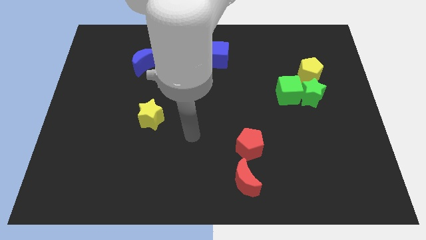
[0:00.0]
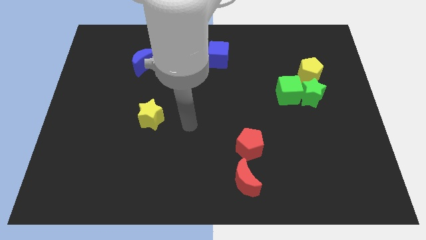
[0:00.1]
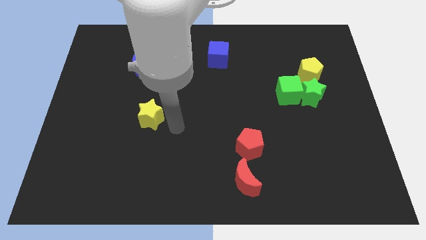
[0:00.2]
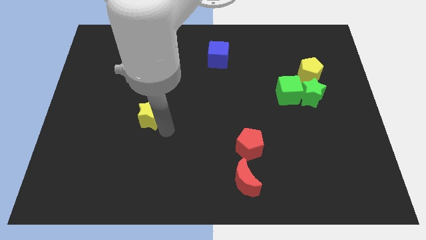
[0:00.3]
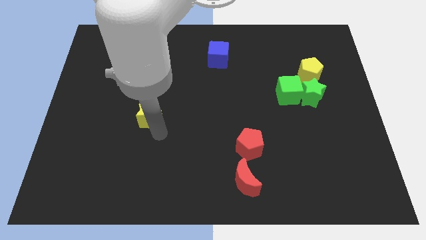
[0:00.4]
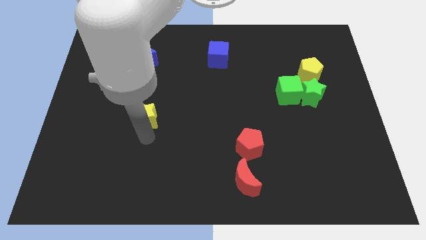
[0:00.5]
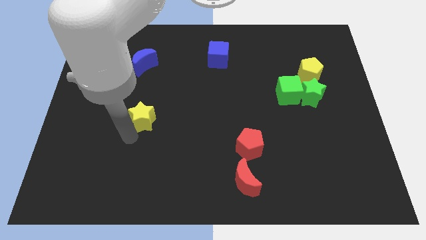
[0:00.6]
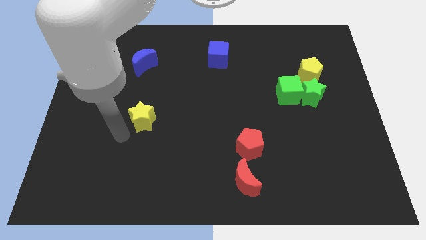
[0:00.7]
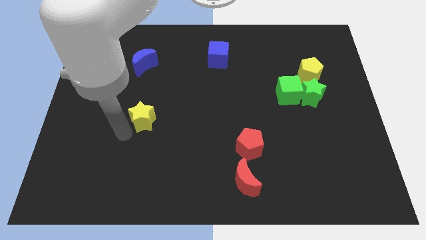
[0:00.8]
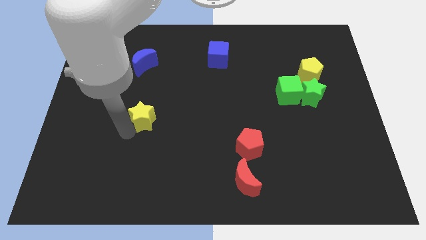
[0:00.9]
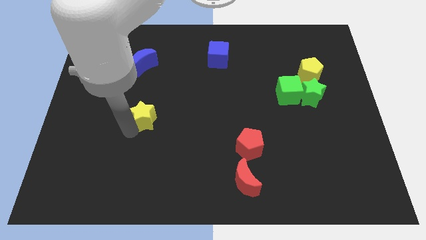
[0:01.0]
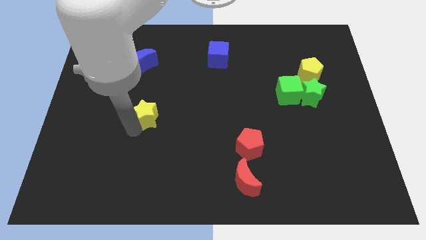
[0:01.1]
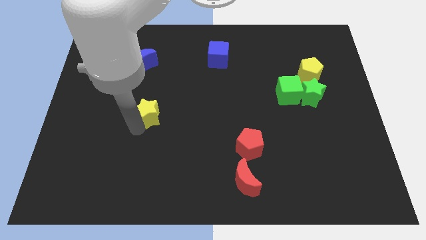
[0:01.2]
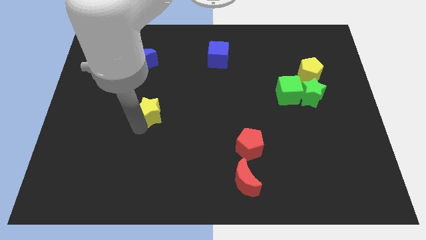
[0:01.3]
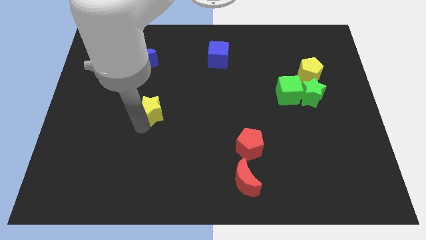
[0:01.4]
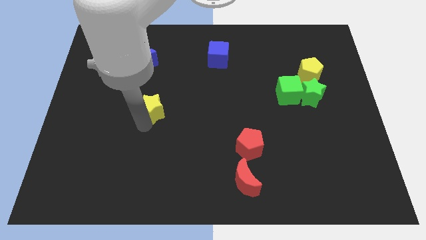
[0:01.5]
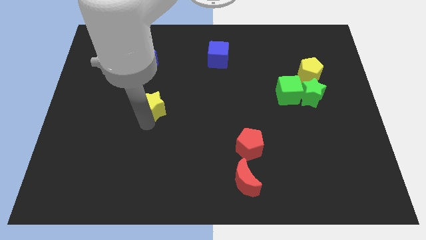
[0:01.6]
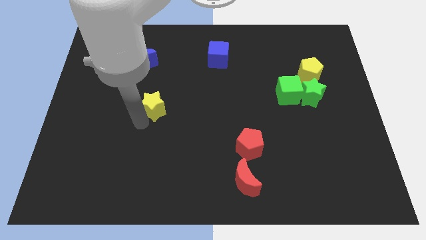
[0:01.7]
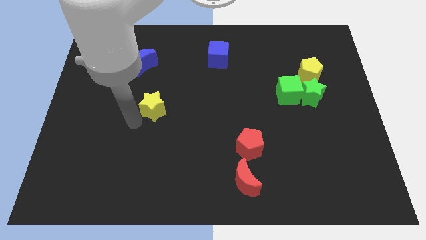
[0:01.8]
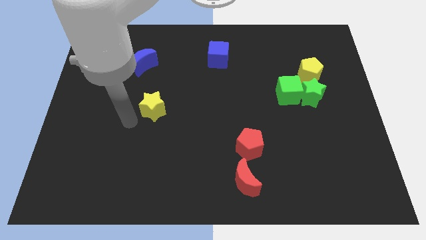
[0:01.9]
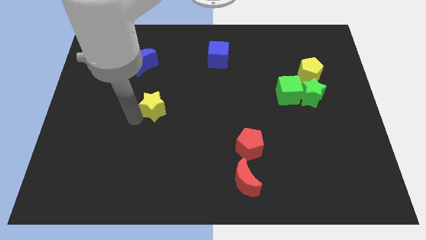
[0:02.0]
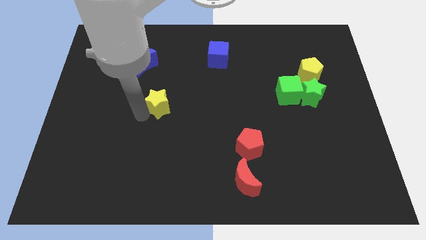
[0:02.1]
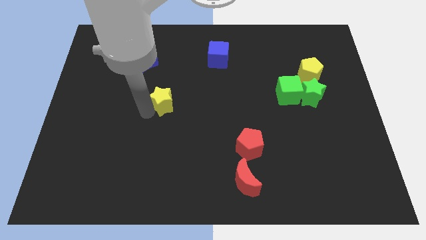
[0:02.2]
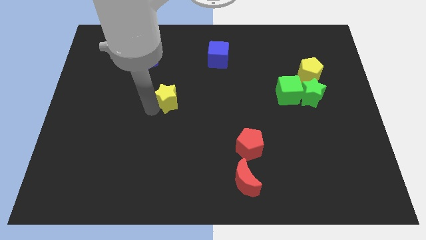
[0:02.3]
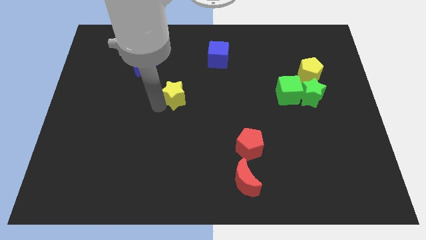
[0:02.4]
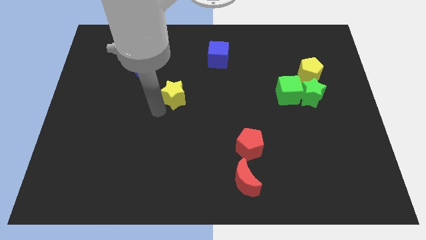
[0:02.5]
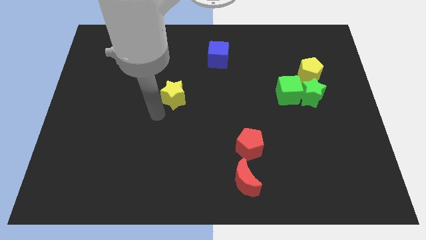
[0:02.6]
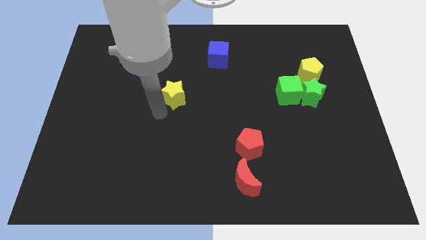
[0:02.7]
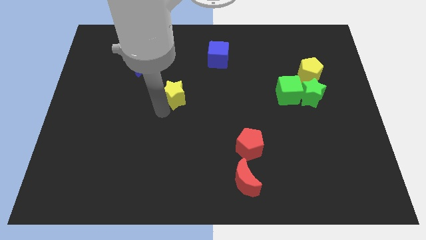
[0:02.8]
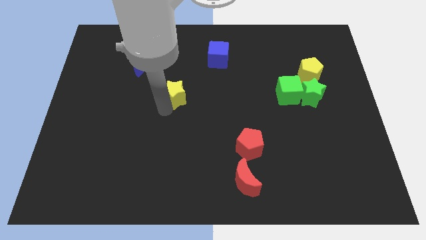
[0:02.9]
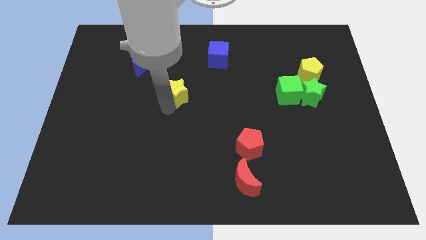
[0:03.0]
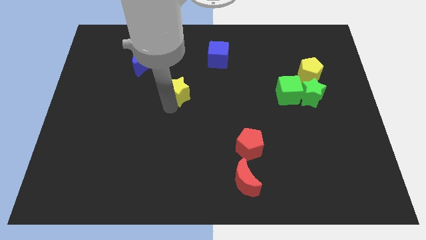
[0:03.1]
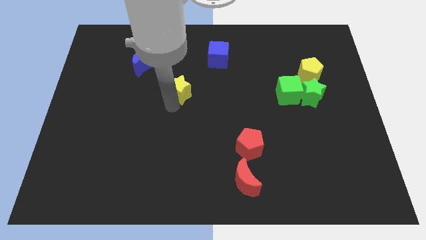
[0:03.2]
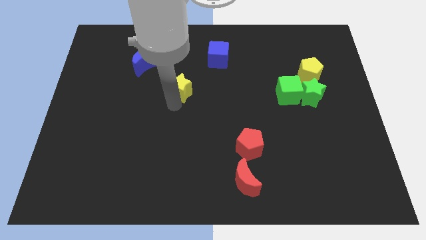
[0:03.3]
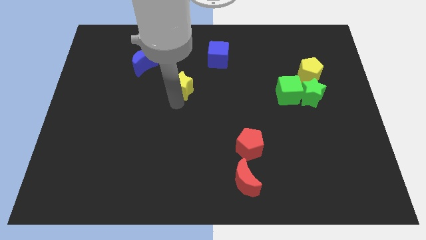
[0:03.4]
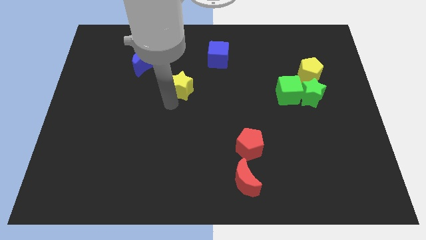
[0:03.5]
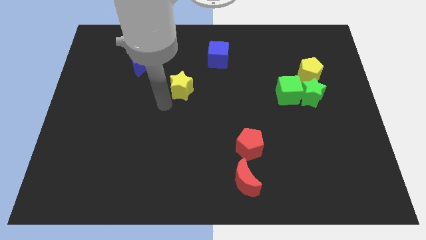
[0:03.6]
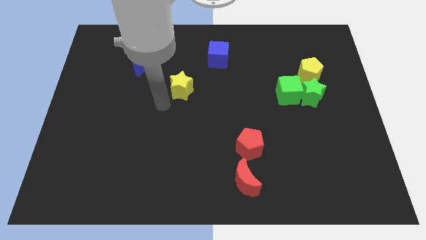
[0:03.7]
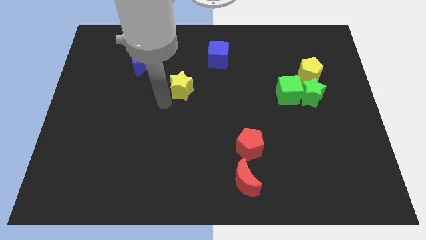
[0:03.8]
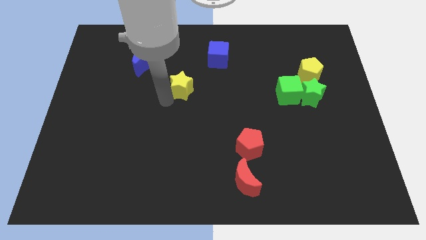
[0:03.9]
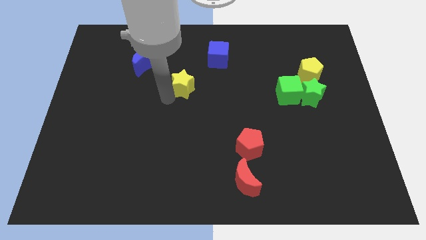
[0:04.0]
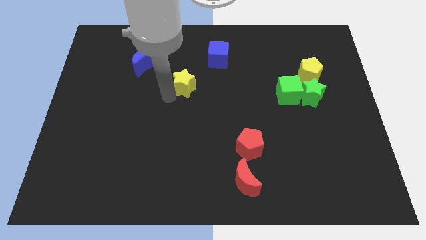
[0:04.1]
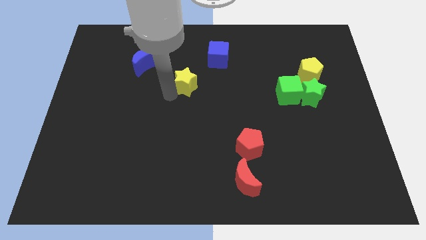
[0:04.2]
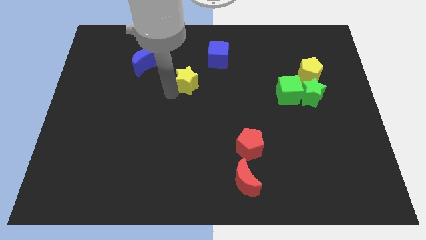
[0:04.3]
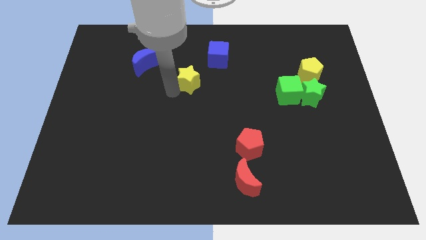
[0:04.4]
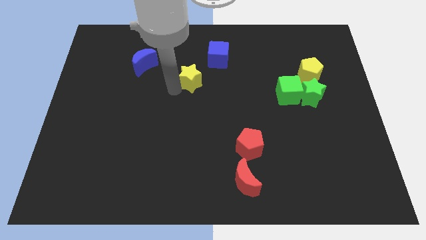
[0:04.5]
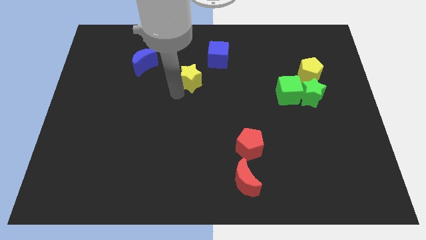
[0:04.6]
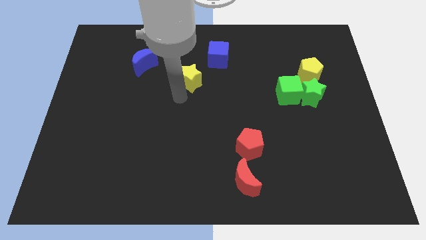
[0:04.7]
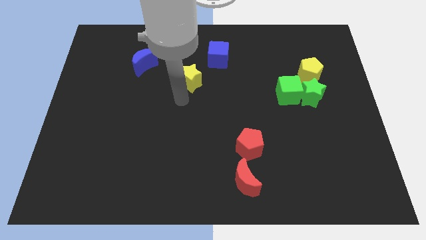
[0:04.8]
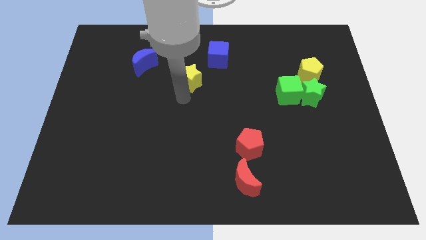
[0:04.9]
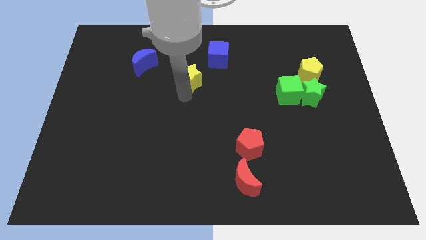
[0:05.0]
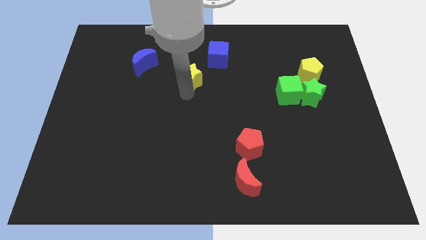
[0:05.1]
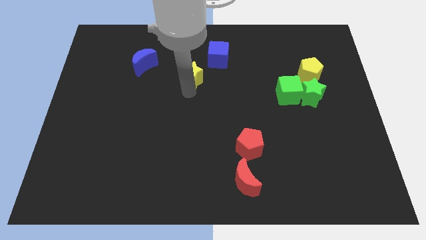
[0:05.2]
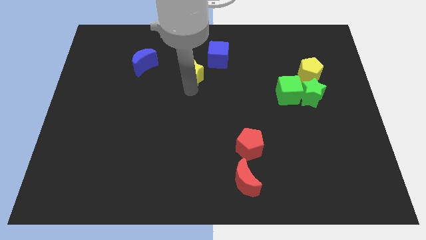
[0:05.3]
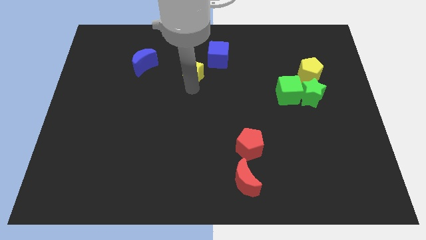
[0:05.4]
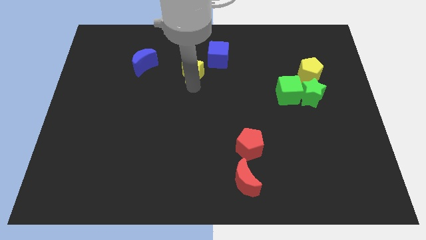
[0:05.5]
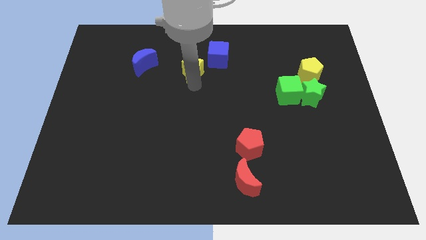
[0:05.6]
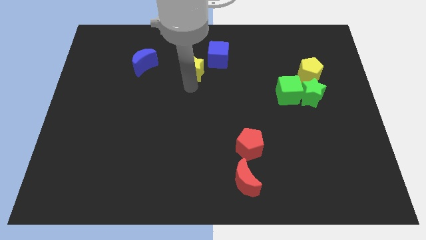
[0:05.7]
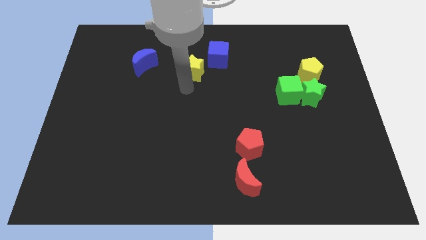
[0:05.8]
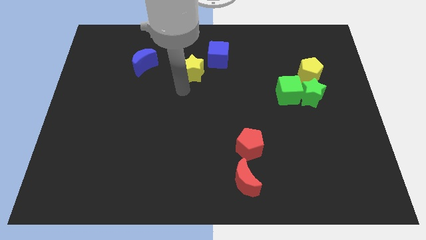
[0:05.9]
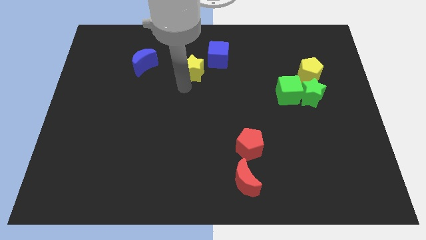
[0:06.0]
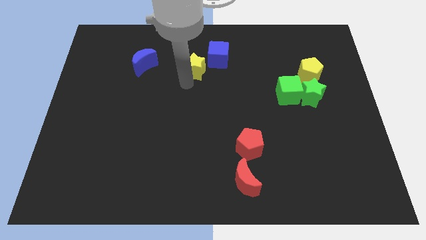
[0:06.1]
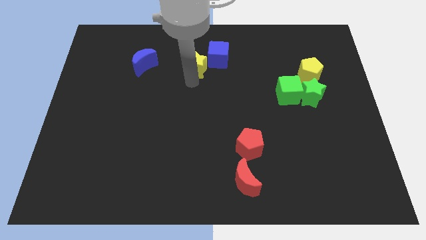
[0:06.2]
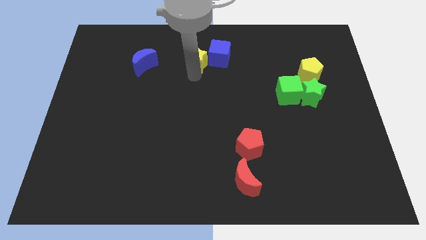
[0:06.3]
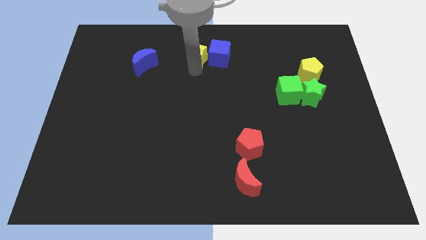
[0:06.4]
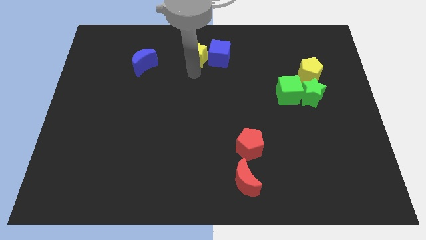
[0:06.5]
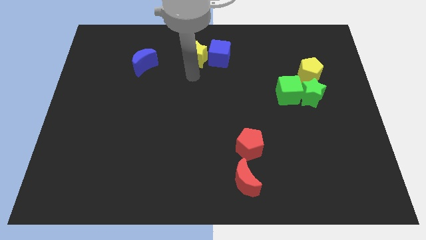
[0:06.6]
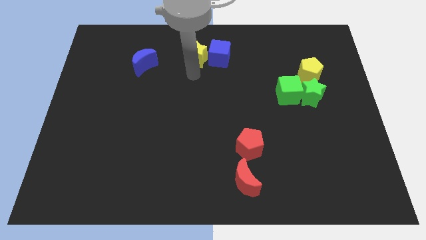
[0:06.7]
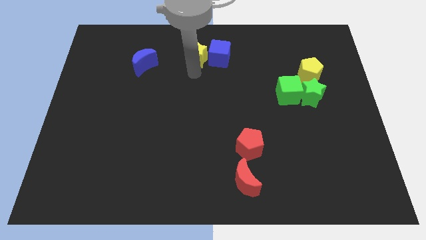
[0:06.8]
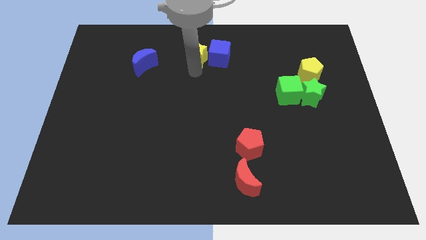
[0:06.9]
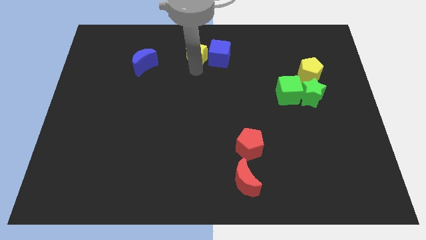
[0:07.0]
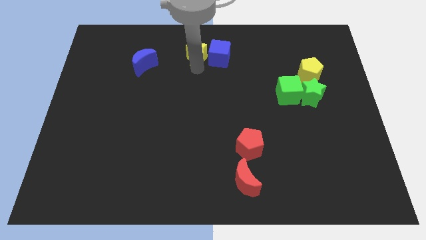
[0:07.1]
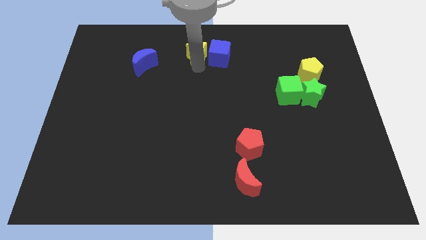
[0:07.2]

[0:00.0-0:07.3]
put the yellow star to the top
